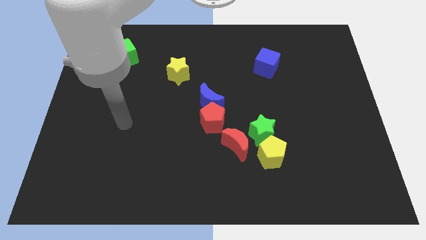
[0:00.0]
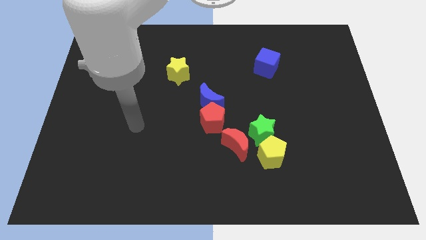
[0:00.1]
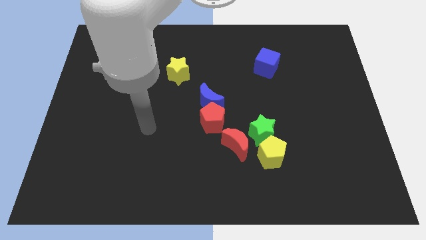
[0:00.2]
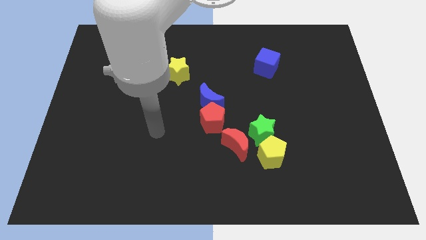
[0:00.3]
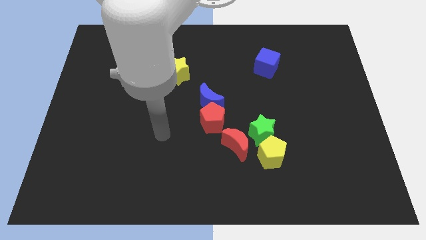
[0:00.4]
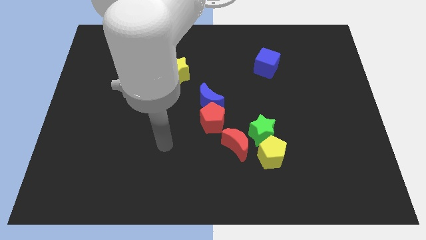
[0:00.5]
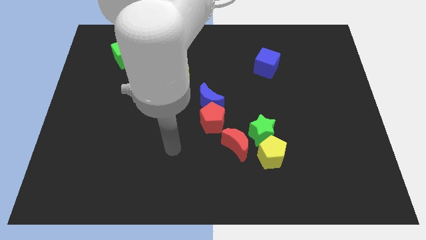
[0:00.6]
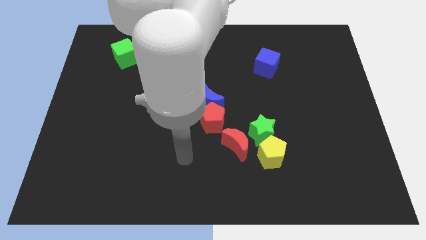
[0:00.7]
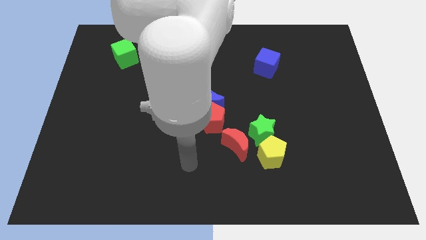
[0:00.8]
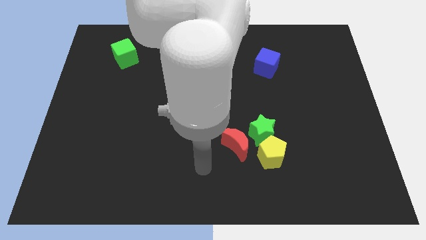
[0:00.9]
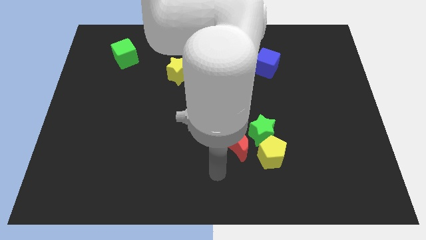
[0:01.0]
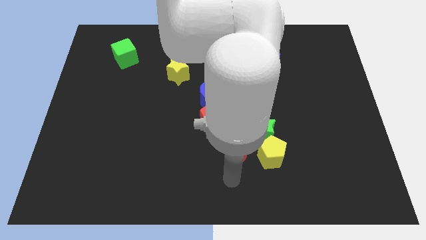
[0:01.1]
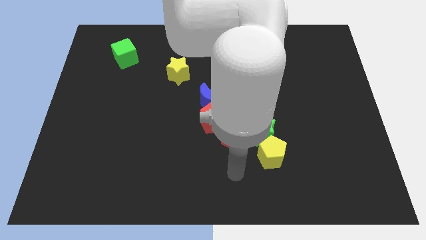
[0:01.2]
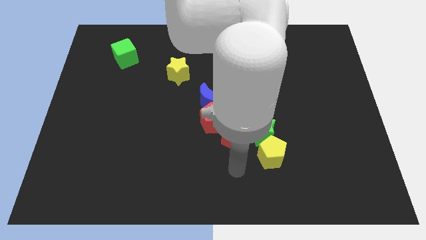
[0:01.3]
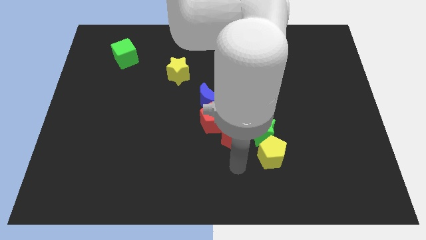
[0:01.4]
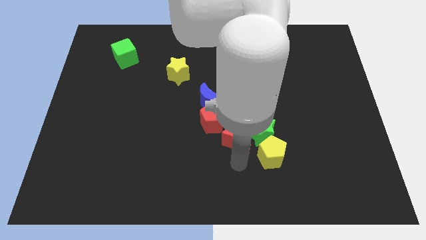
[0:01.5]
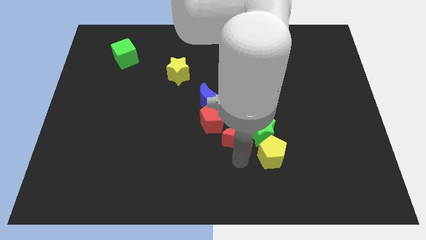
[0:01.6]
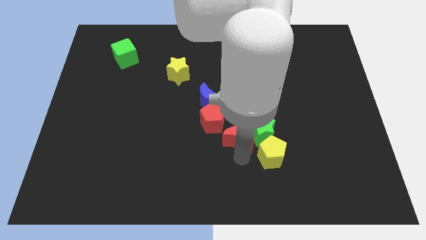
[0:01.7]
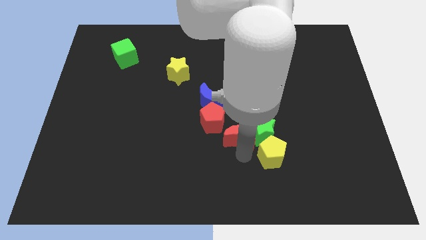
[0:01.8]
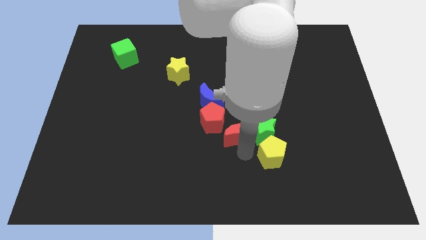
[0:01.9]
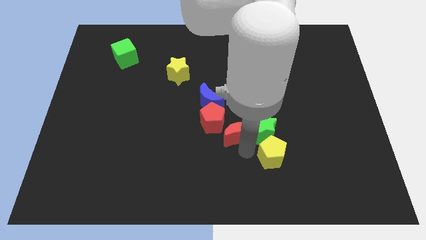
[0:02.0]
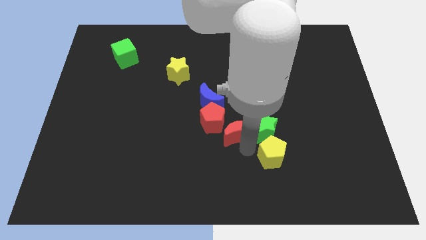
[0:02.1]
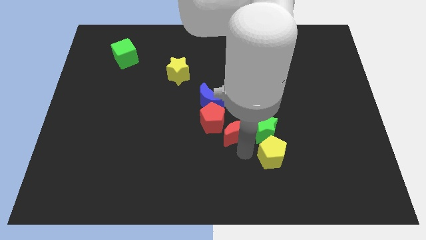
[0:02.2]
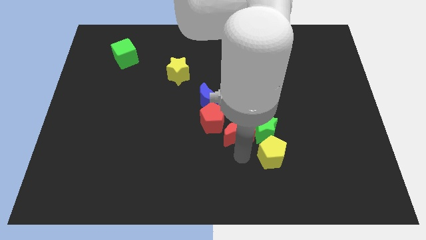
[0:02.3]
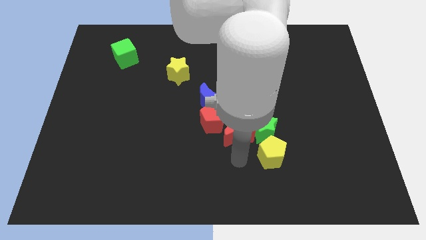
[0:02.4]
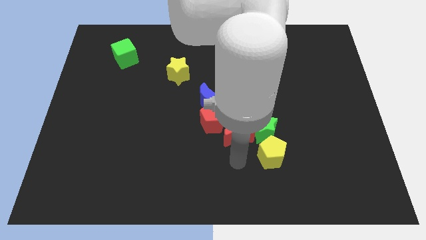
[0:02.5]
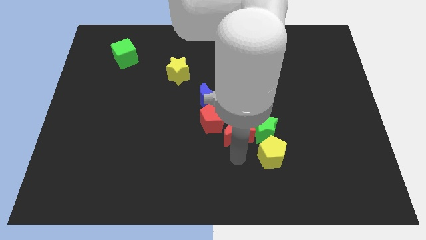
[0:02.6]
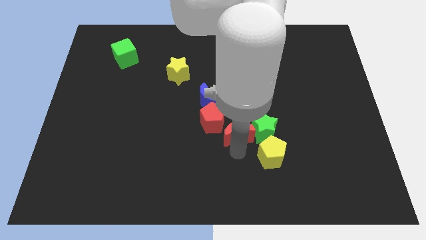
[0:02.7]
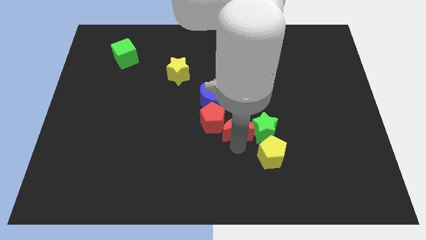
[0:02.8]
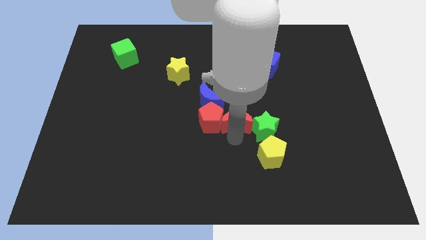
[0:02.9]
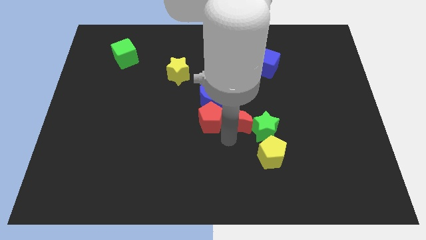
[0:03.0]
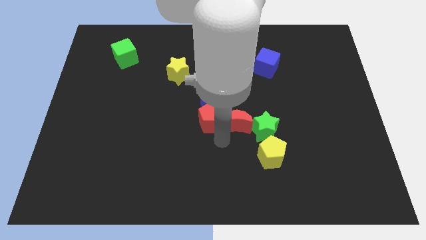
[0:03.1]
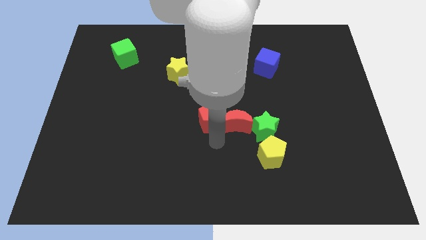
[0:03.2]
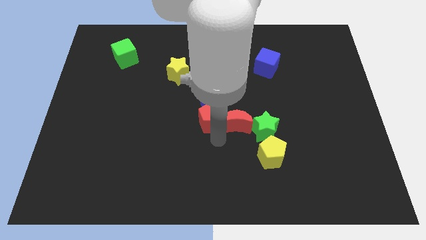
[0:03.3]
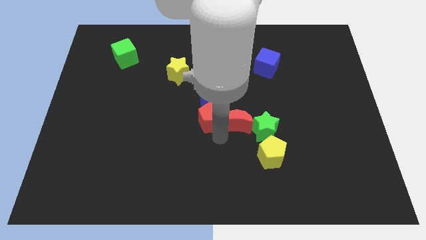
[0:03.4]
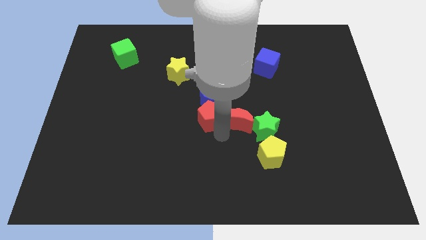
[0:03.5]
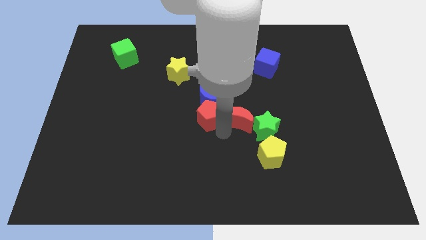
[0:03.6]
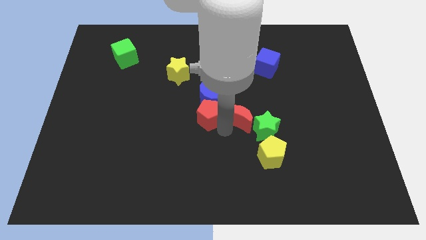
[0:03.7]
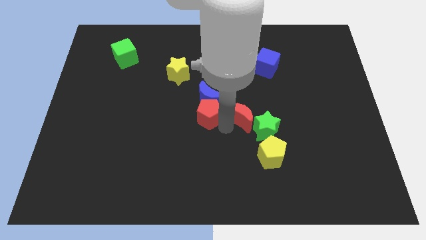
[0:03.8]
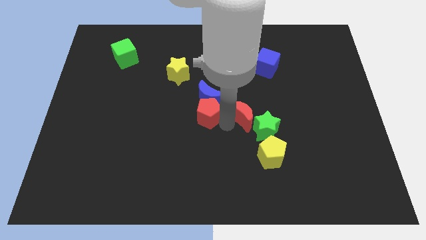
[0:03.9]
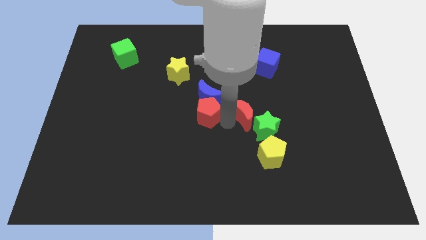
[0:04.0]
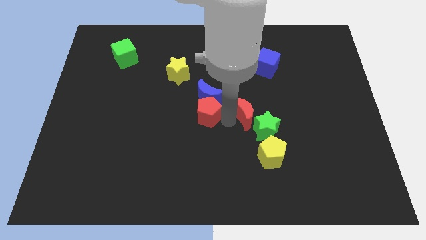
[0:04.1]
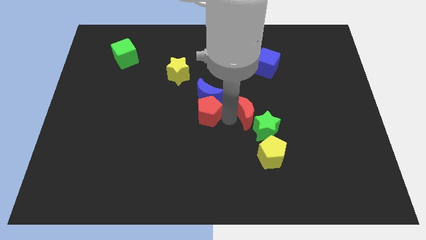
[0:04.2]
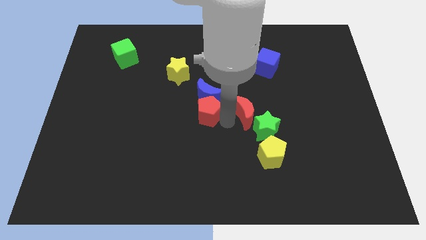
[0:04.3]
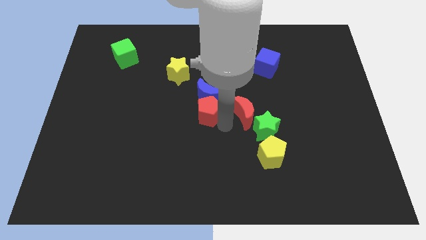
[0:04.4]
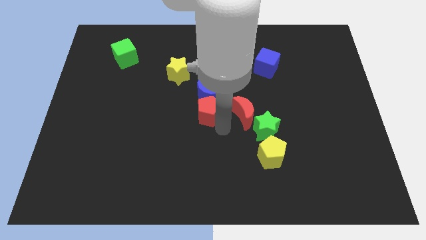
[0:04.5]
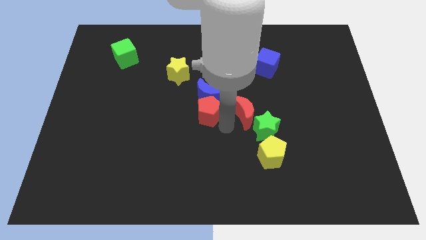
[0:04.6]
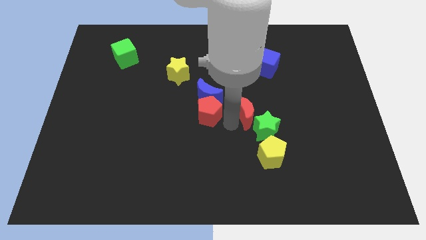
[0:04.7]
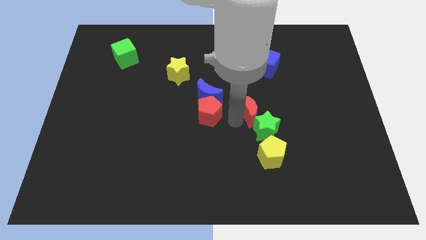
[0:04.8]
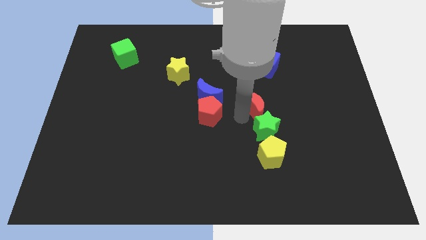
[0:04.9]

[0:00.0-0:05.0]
push the red moon below the blue cube

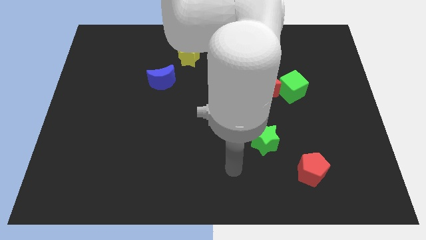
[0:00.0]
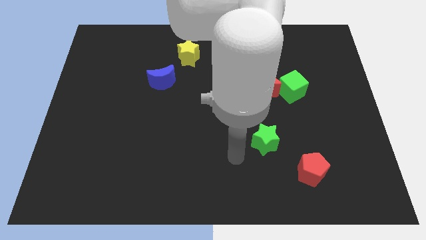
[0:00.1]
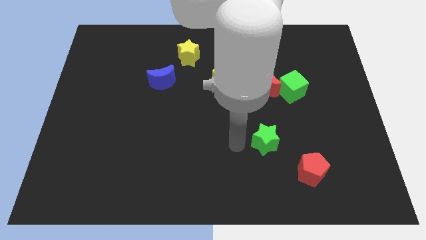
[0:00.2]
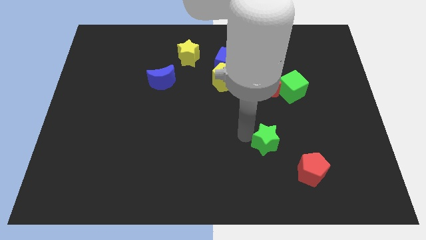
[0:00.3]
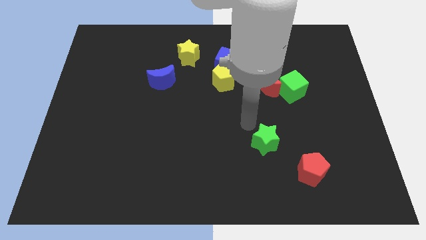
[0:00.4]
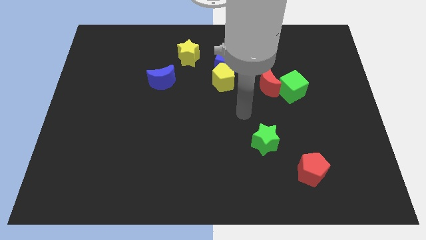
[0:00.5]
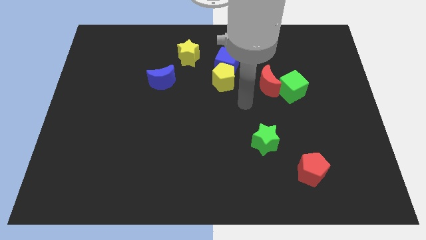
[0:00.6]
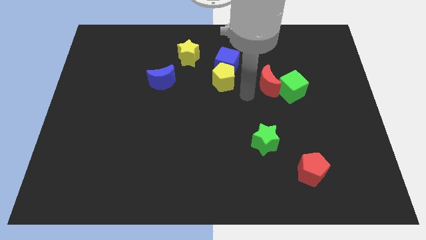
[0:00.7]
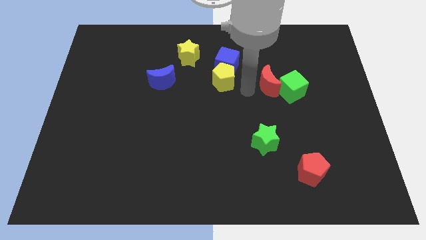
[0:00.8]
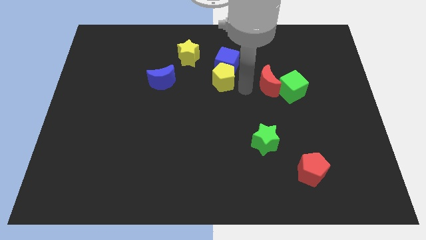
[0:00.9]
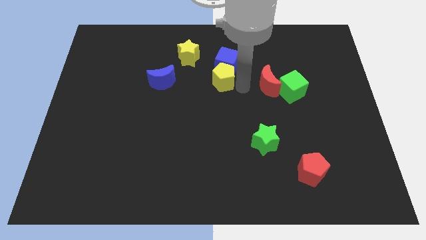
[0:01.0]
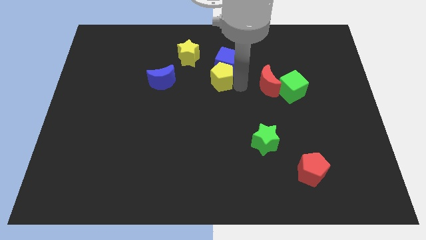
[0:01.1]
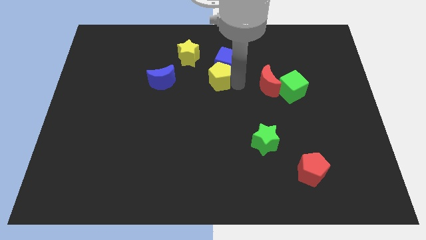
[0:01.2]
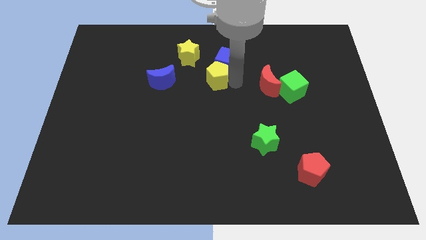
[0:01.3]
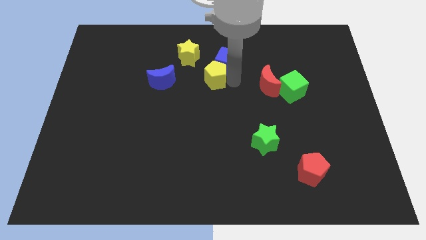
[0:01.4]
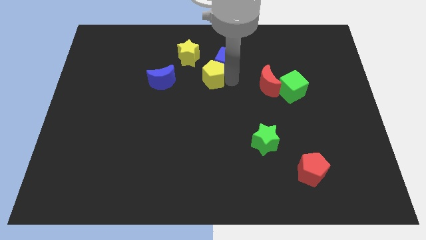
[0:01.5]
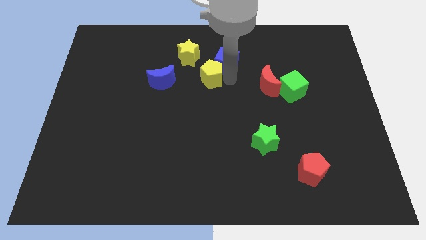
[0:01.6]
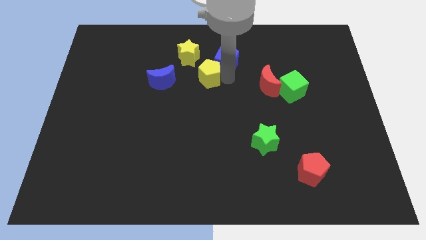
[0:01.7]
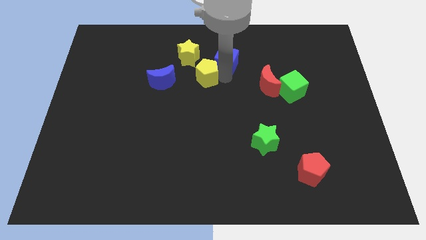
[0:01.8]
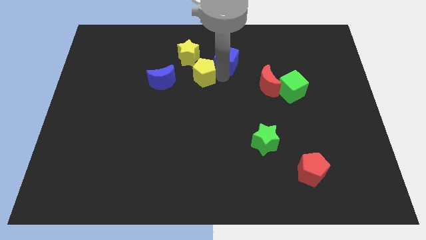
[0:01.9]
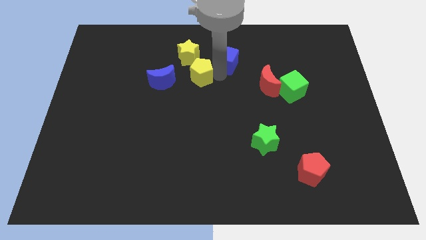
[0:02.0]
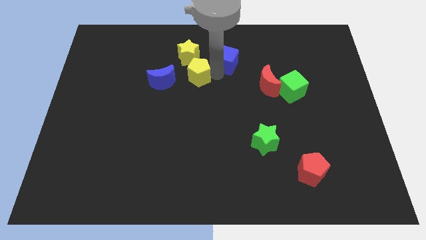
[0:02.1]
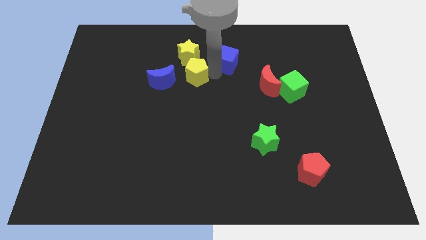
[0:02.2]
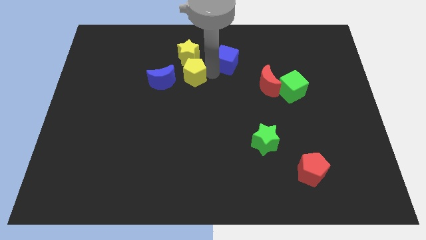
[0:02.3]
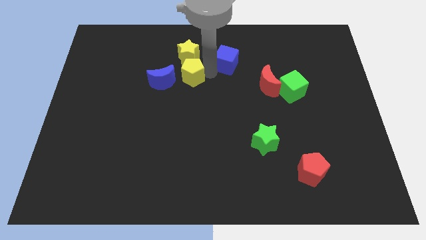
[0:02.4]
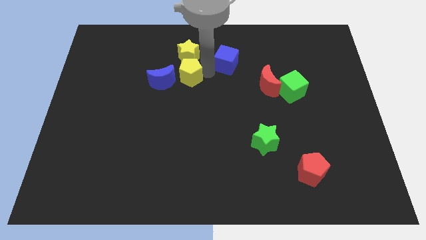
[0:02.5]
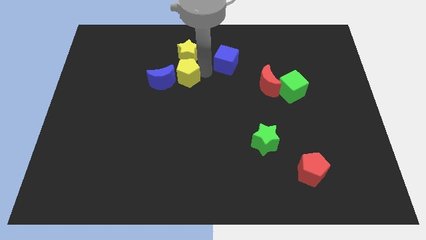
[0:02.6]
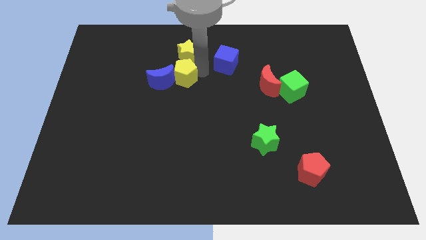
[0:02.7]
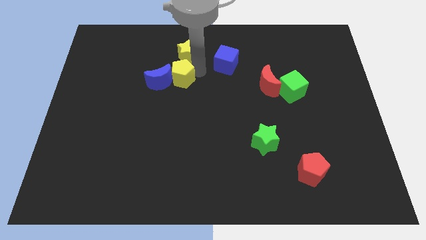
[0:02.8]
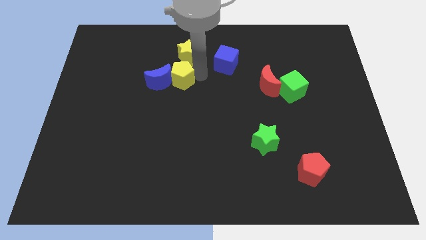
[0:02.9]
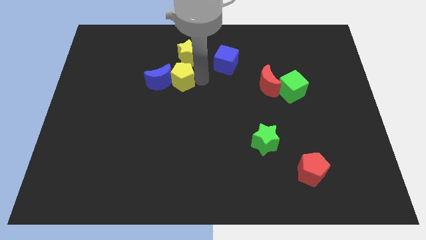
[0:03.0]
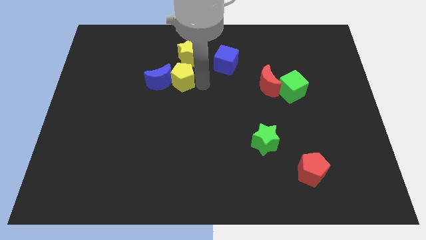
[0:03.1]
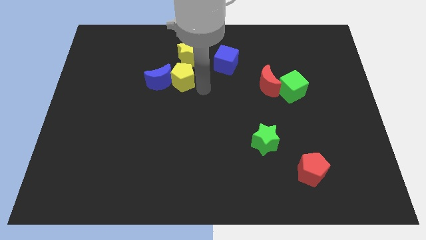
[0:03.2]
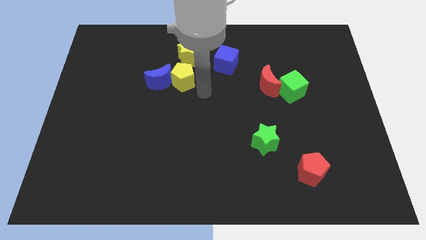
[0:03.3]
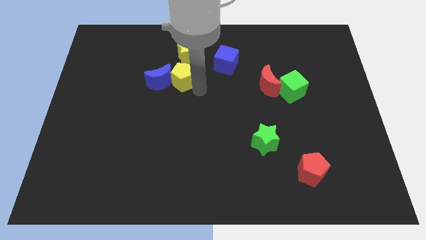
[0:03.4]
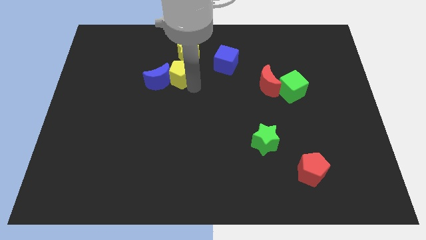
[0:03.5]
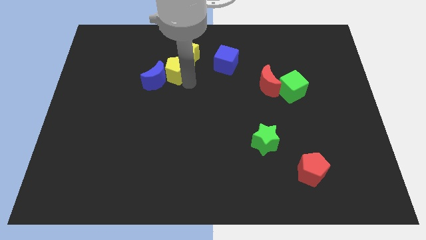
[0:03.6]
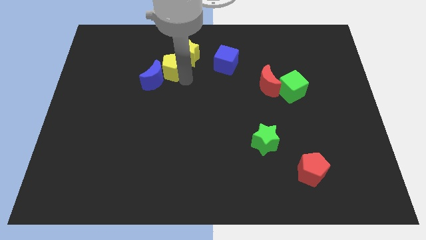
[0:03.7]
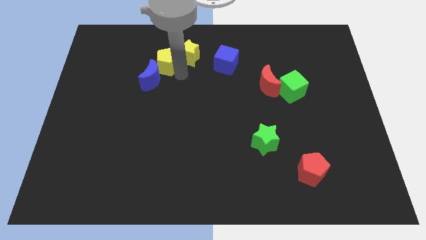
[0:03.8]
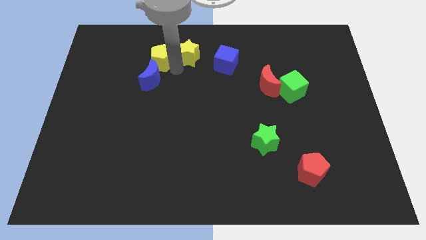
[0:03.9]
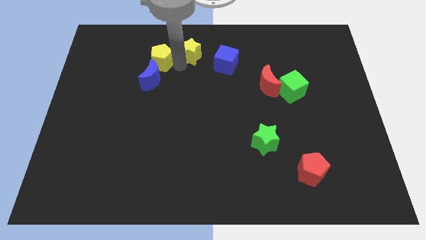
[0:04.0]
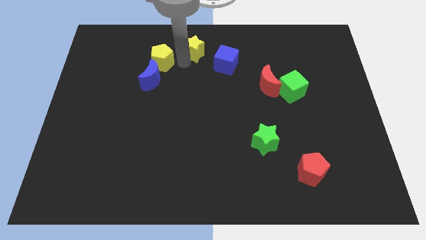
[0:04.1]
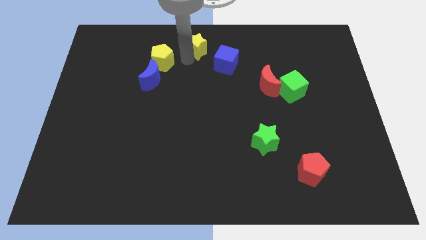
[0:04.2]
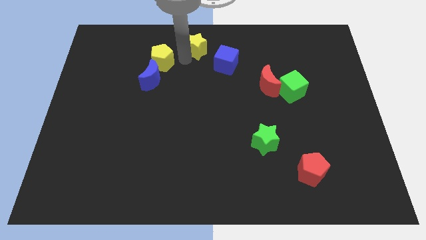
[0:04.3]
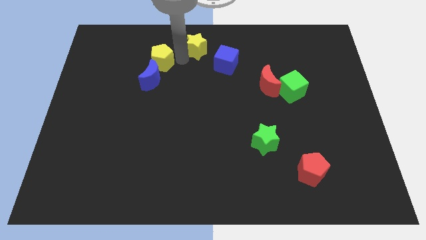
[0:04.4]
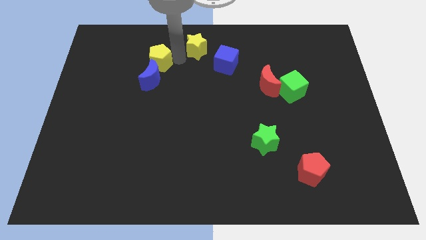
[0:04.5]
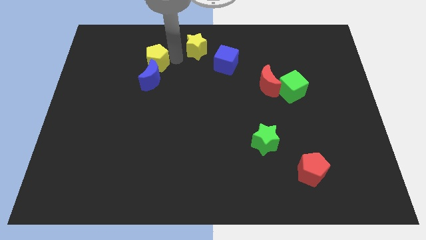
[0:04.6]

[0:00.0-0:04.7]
put the yellow pentagon to the top left side of the blue moon
